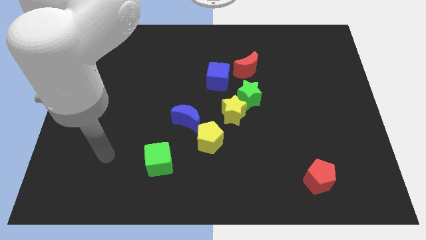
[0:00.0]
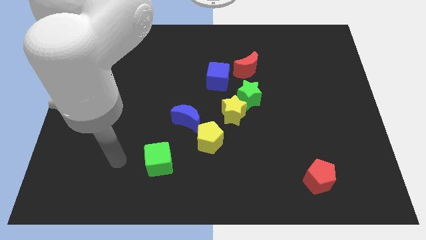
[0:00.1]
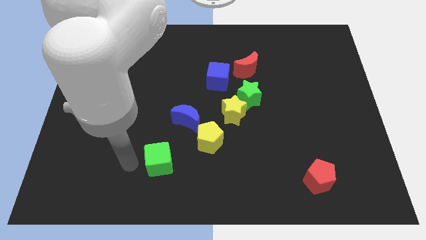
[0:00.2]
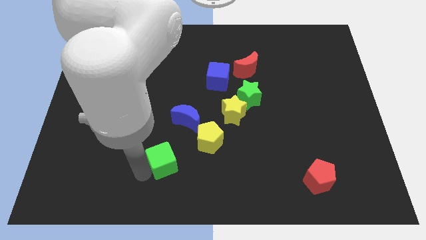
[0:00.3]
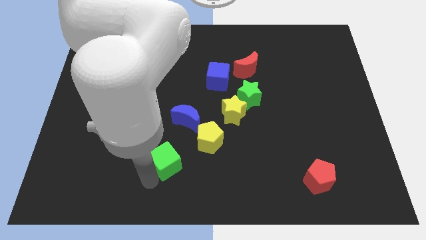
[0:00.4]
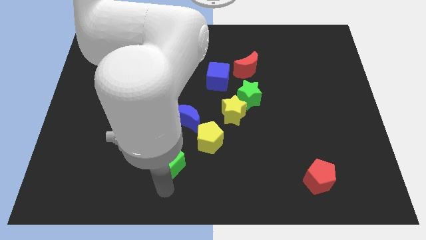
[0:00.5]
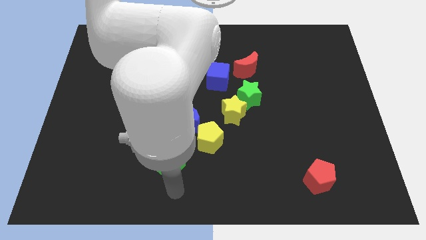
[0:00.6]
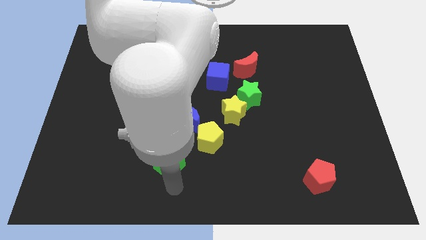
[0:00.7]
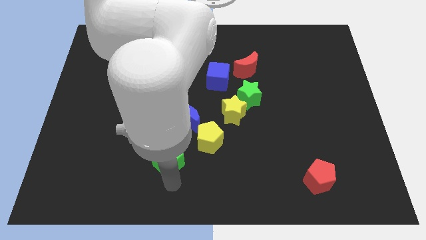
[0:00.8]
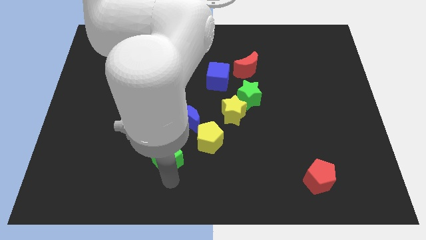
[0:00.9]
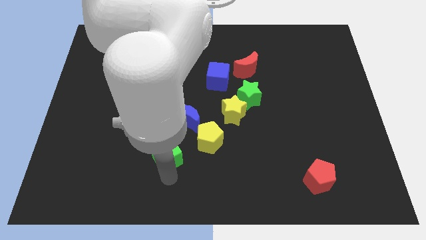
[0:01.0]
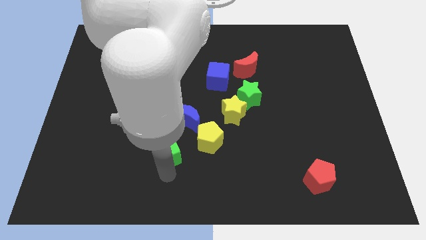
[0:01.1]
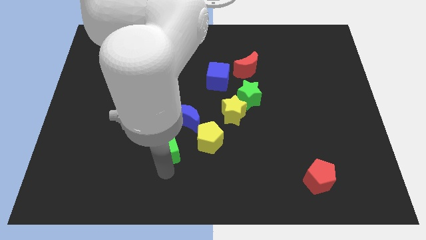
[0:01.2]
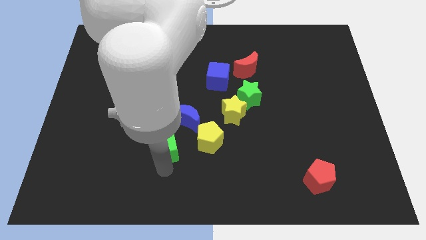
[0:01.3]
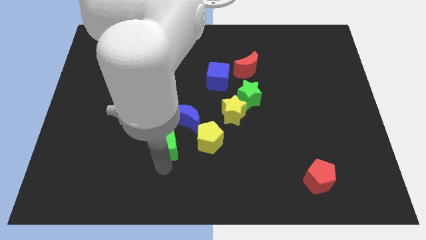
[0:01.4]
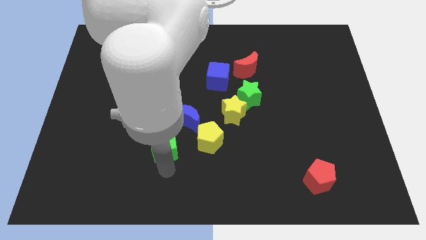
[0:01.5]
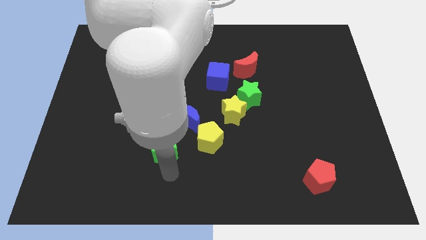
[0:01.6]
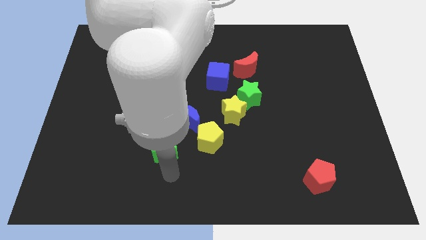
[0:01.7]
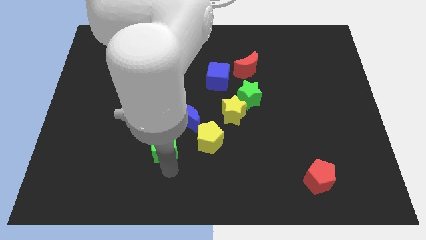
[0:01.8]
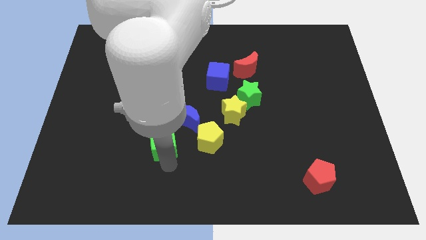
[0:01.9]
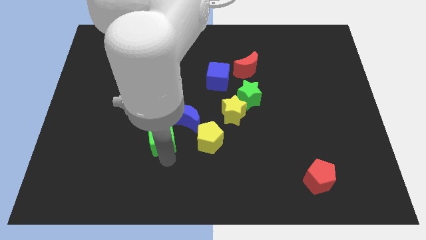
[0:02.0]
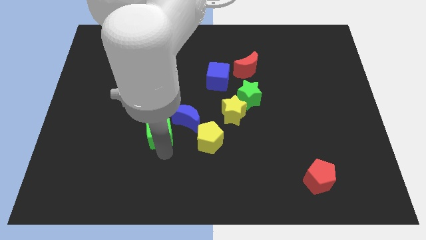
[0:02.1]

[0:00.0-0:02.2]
slide the green cube up slightly

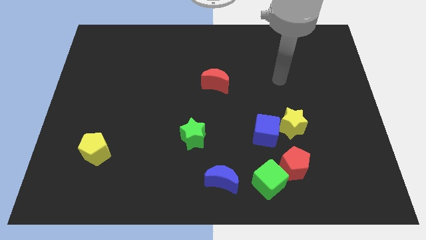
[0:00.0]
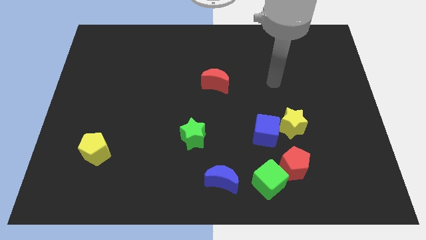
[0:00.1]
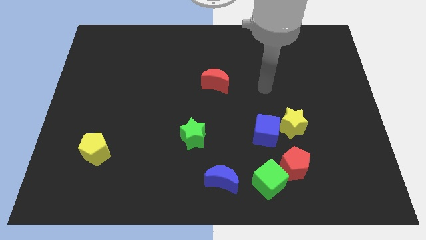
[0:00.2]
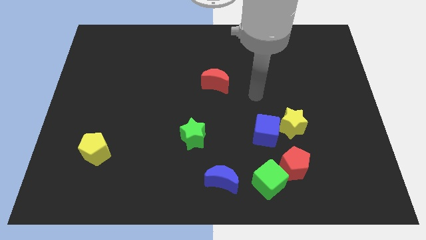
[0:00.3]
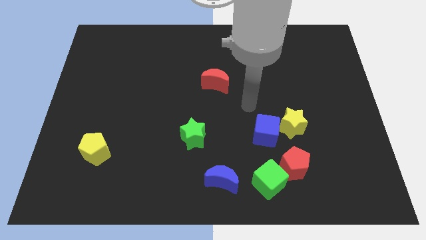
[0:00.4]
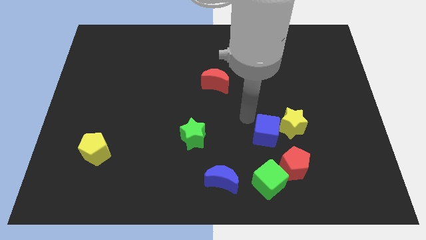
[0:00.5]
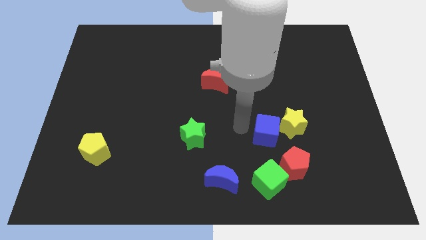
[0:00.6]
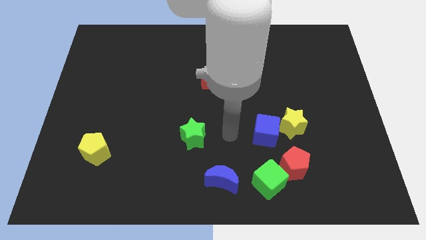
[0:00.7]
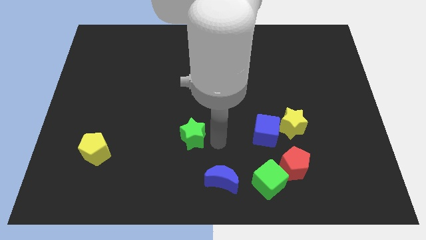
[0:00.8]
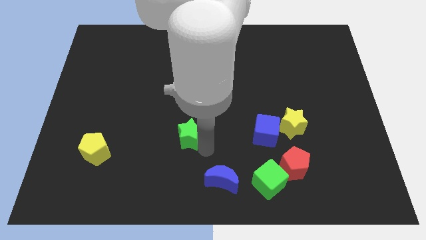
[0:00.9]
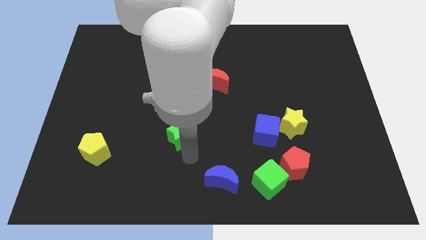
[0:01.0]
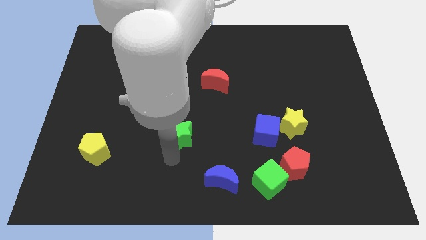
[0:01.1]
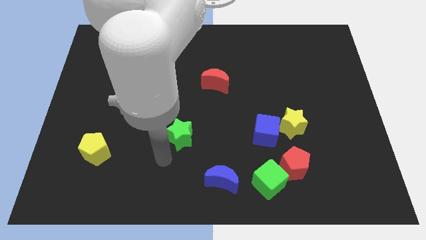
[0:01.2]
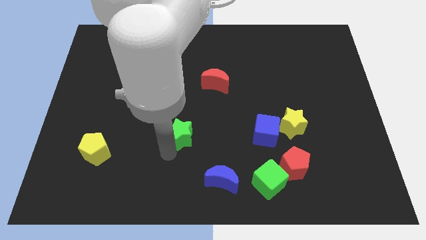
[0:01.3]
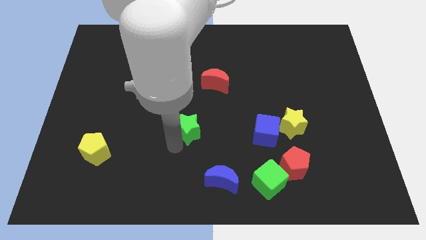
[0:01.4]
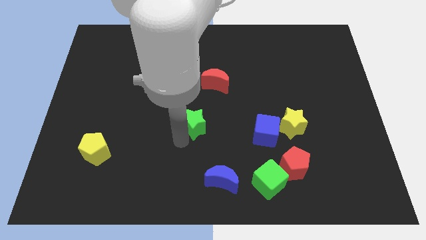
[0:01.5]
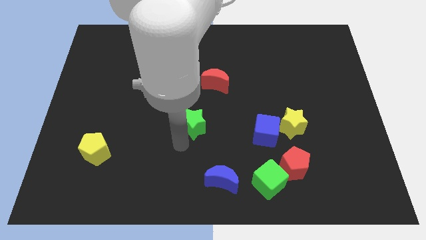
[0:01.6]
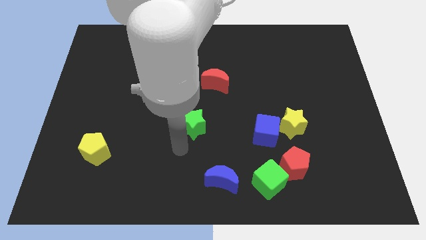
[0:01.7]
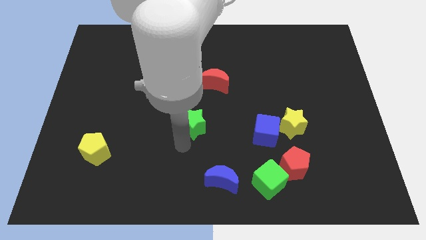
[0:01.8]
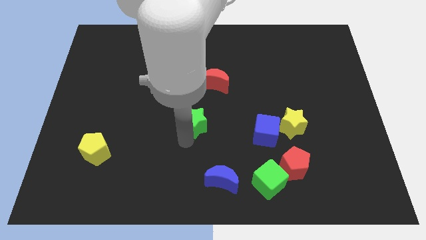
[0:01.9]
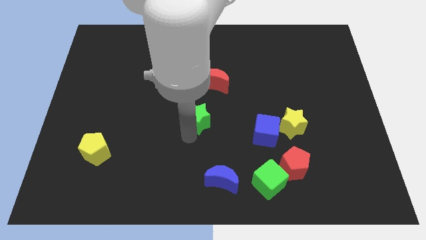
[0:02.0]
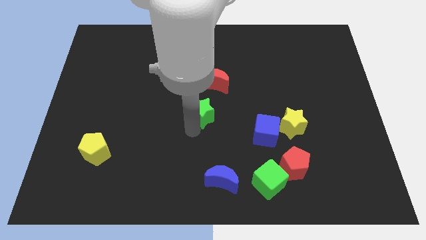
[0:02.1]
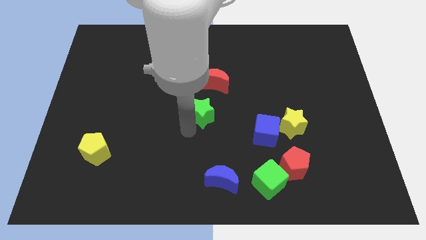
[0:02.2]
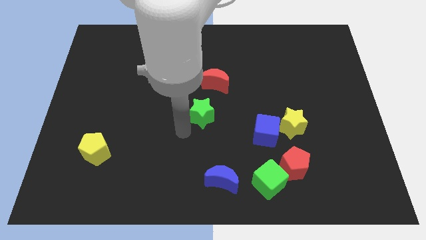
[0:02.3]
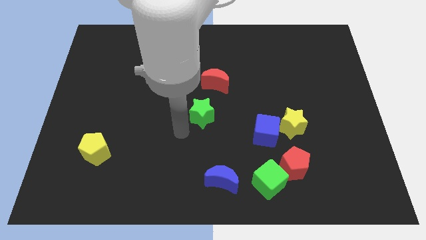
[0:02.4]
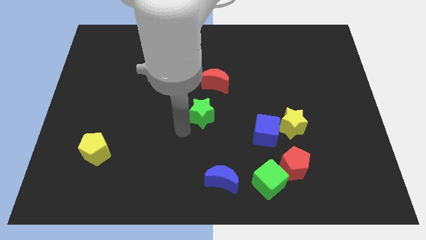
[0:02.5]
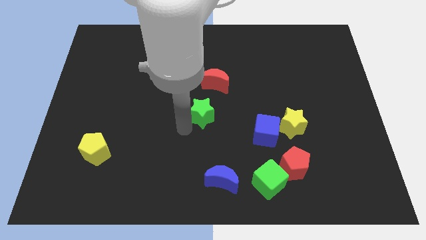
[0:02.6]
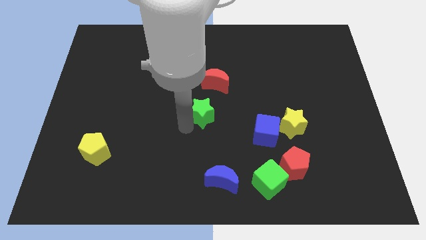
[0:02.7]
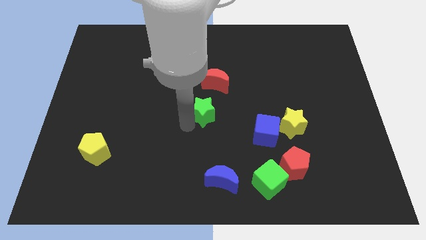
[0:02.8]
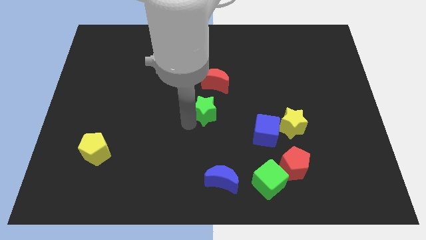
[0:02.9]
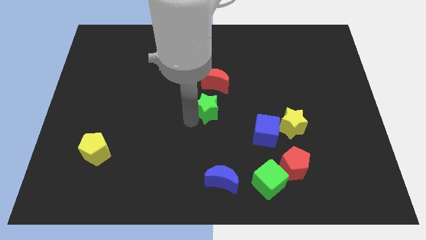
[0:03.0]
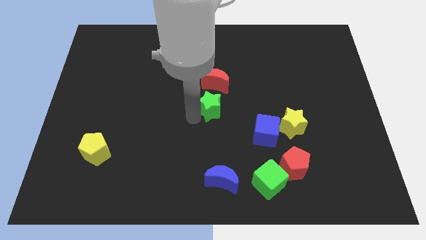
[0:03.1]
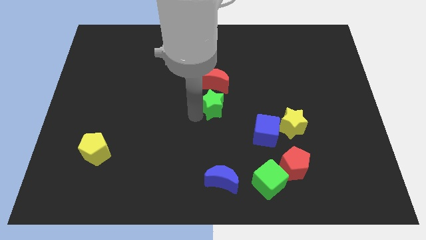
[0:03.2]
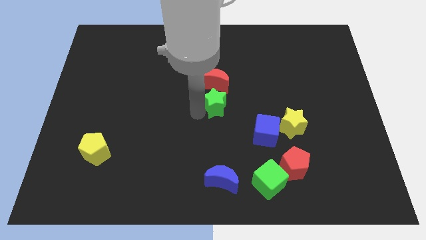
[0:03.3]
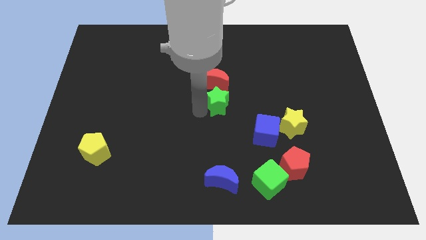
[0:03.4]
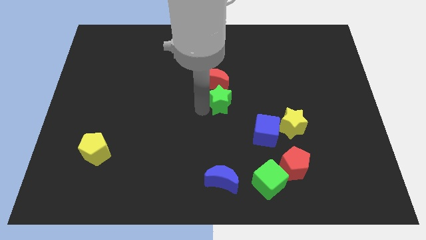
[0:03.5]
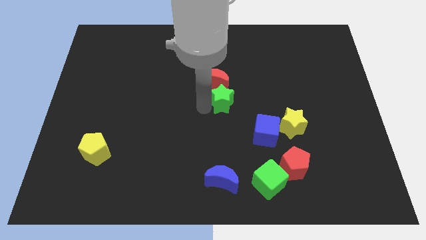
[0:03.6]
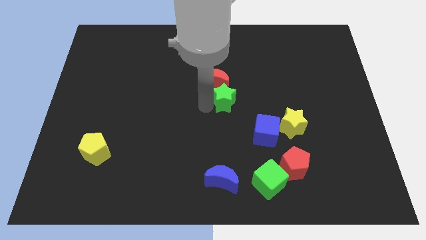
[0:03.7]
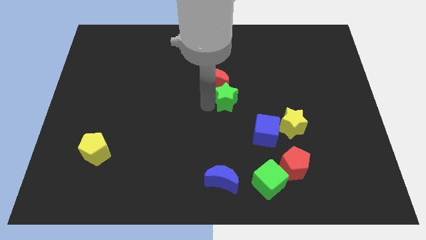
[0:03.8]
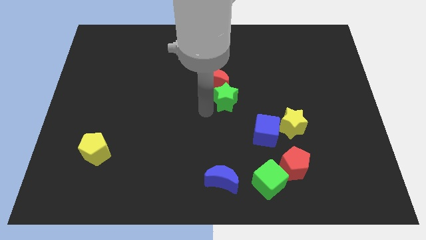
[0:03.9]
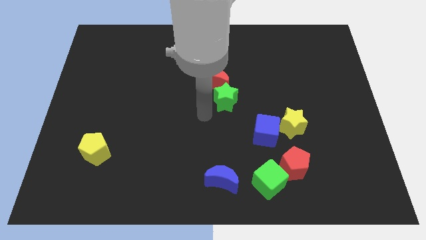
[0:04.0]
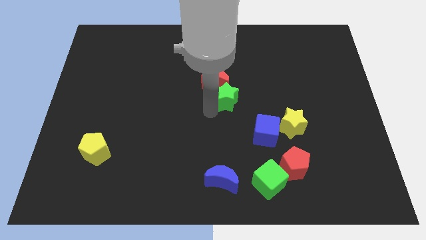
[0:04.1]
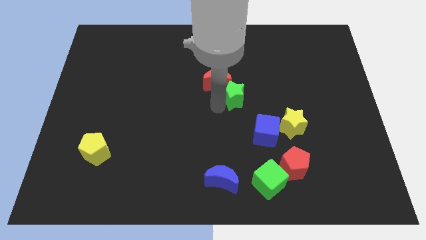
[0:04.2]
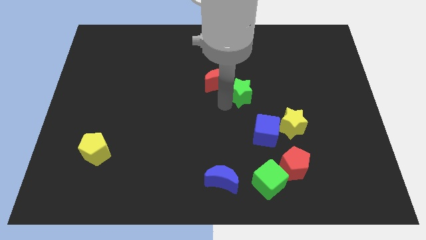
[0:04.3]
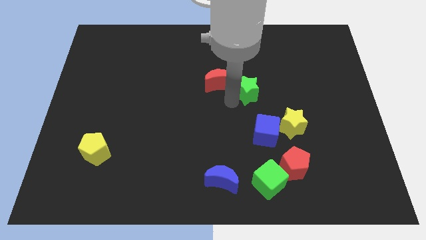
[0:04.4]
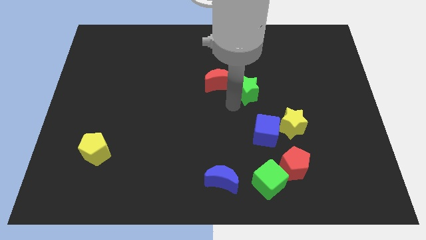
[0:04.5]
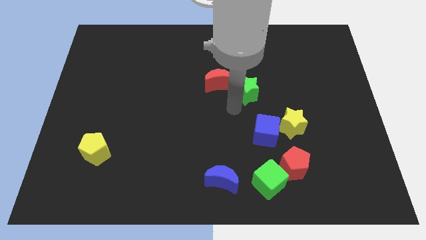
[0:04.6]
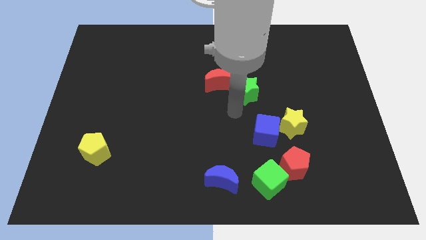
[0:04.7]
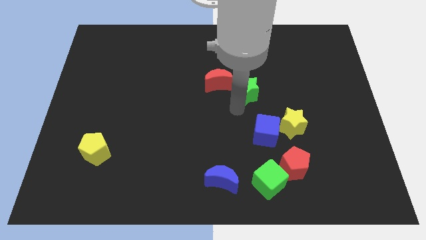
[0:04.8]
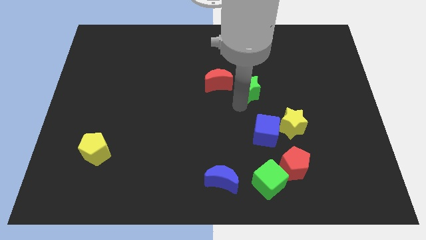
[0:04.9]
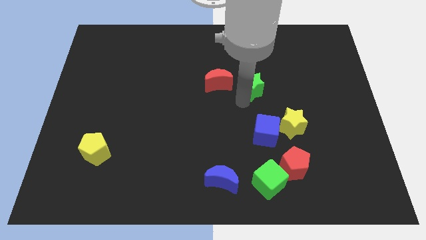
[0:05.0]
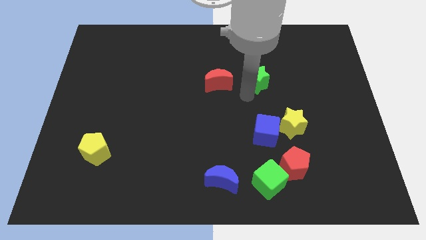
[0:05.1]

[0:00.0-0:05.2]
push the green star diagonally upwards and right

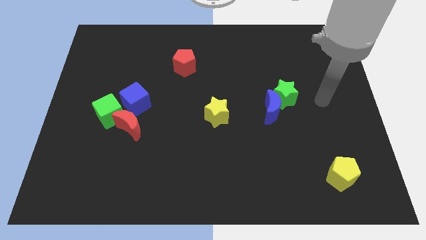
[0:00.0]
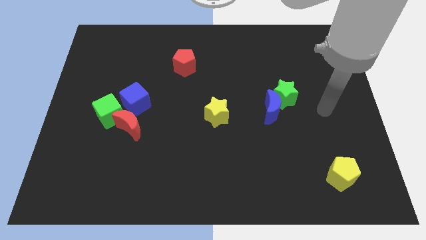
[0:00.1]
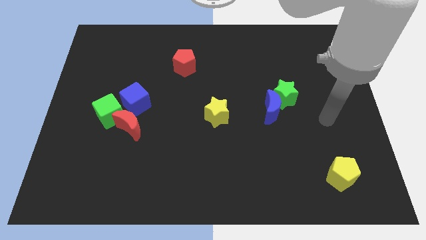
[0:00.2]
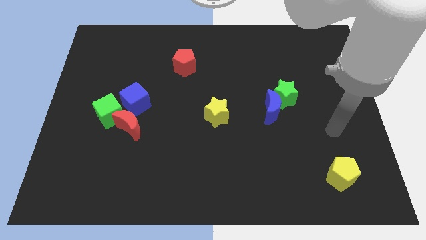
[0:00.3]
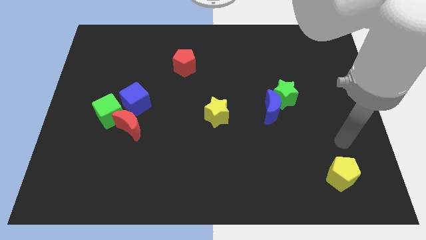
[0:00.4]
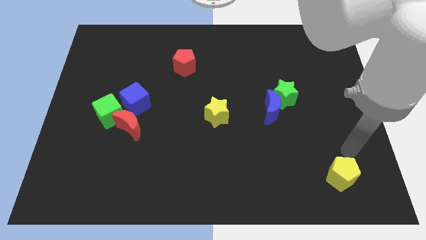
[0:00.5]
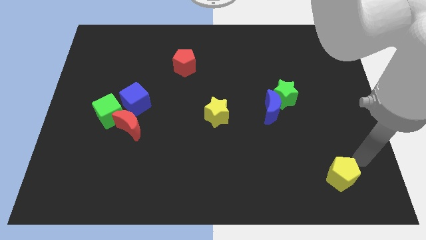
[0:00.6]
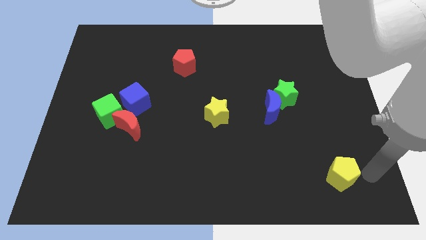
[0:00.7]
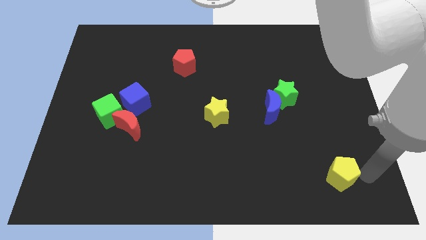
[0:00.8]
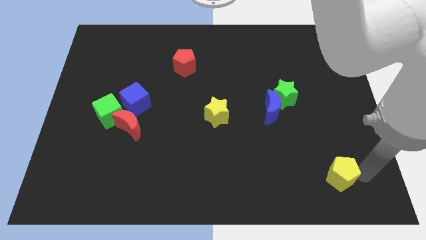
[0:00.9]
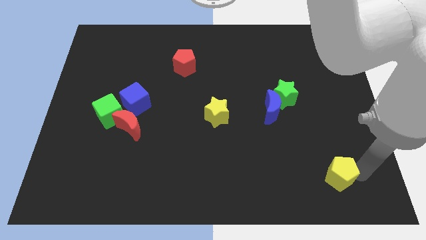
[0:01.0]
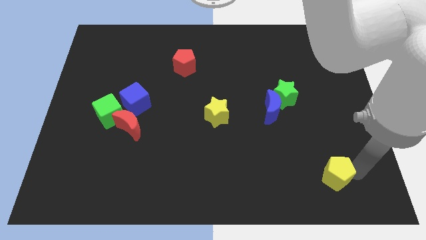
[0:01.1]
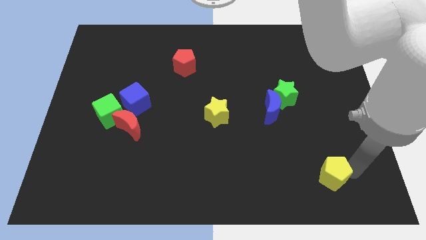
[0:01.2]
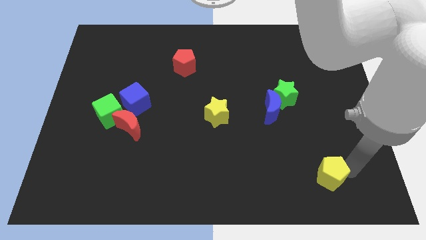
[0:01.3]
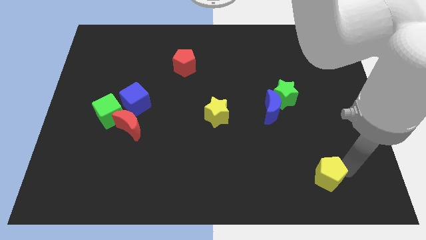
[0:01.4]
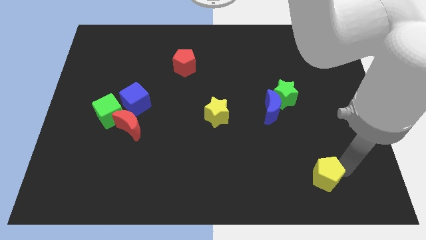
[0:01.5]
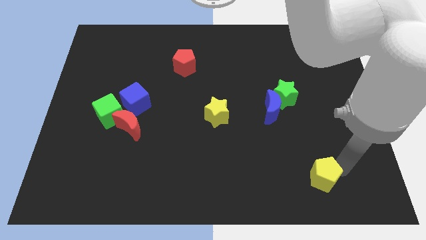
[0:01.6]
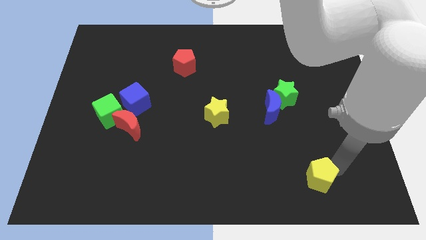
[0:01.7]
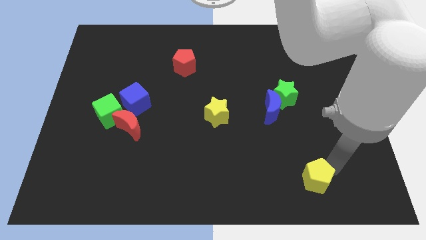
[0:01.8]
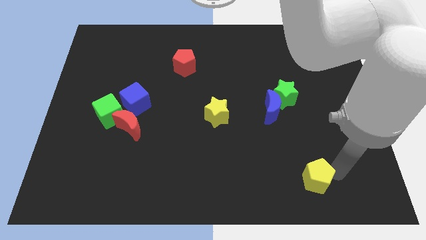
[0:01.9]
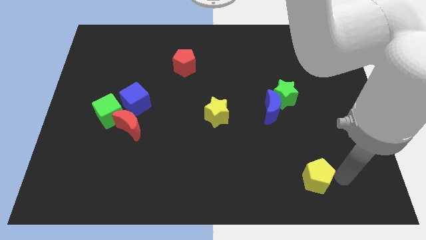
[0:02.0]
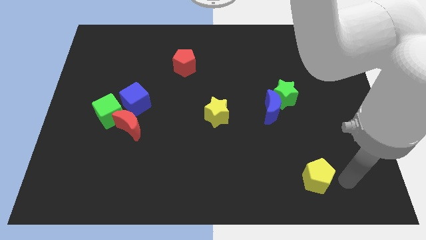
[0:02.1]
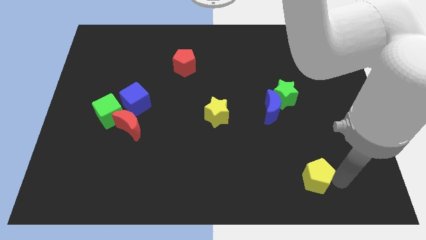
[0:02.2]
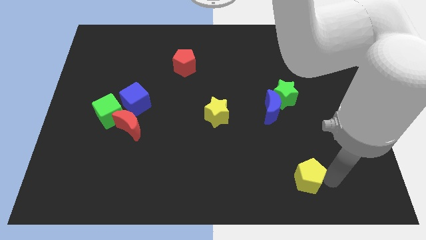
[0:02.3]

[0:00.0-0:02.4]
slightly move the yellow pentagon to the left
